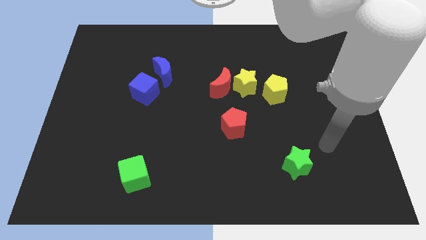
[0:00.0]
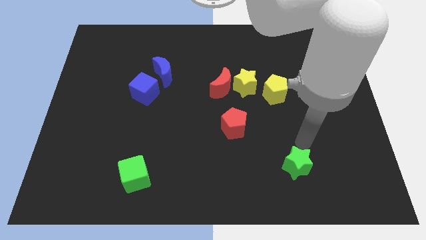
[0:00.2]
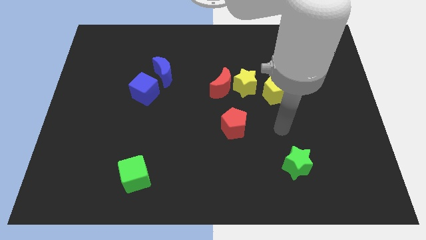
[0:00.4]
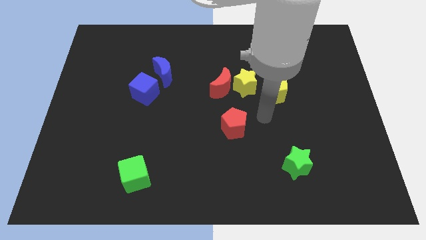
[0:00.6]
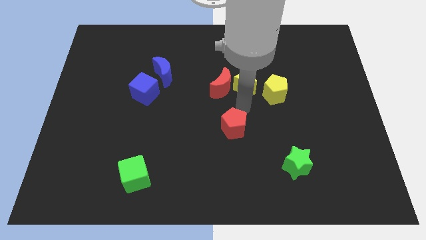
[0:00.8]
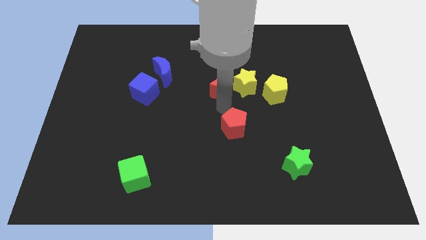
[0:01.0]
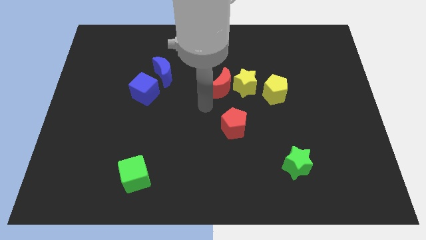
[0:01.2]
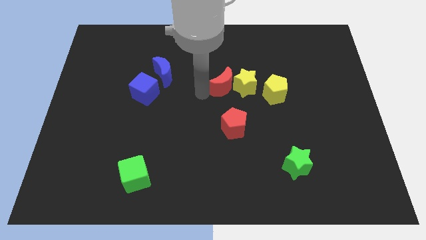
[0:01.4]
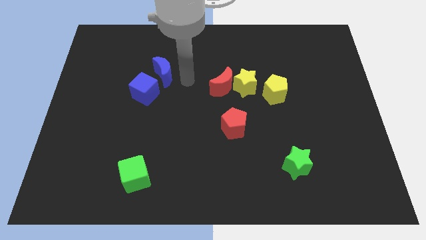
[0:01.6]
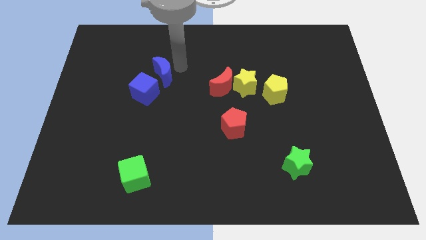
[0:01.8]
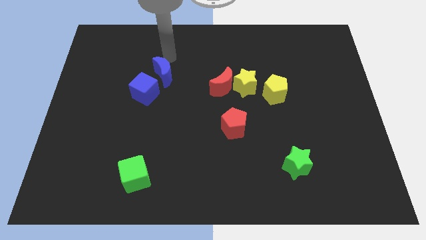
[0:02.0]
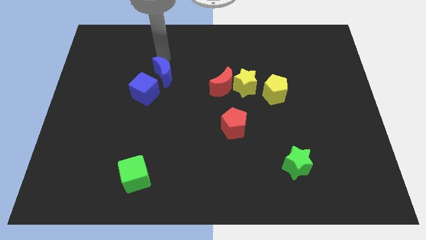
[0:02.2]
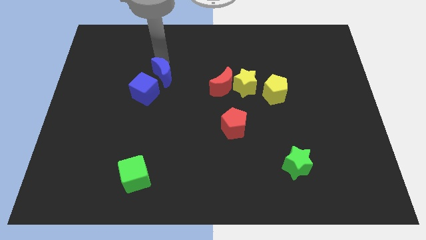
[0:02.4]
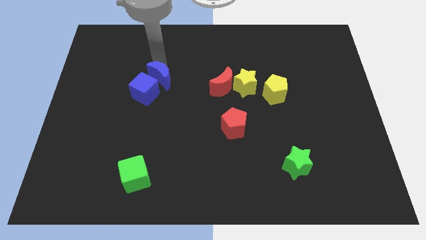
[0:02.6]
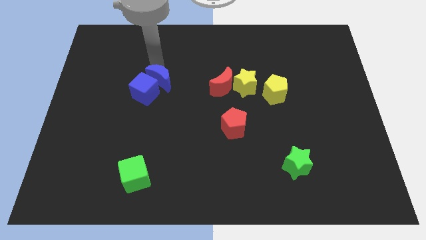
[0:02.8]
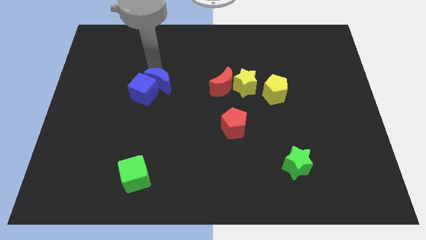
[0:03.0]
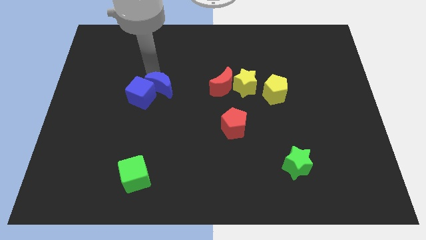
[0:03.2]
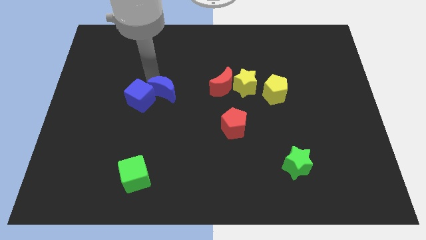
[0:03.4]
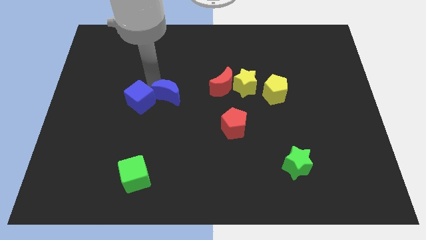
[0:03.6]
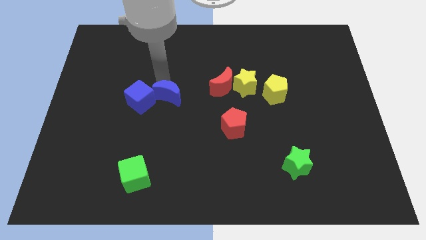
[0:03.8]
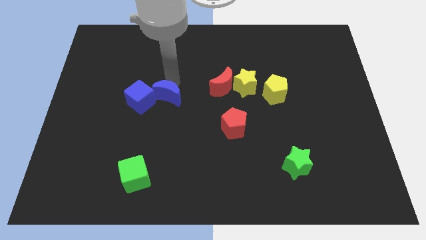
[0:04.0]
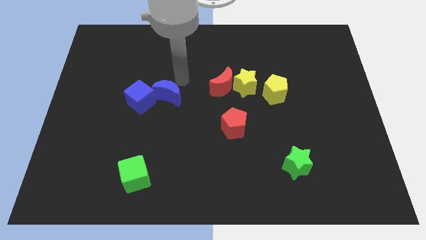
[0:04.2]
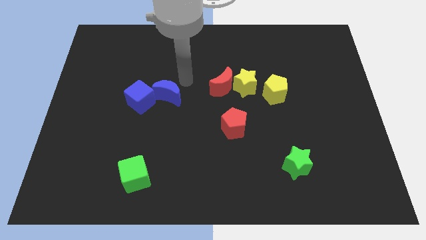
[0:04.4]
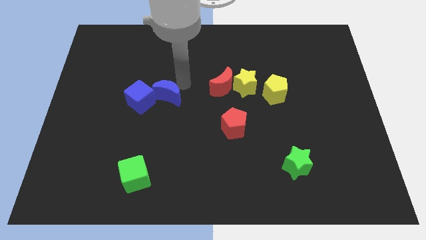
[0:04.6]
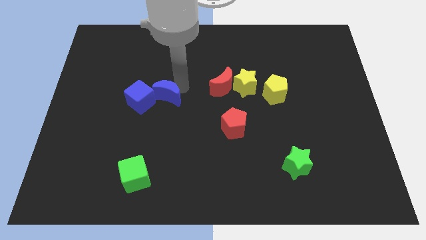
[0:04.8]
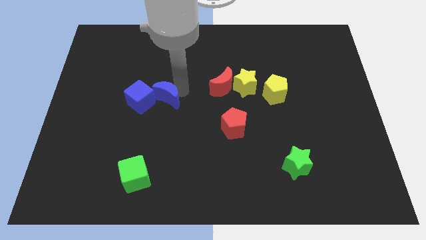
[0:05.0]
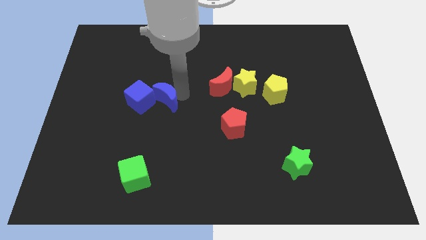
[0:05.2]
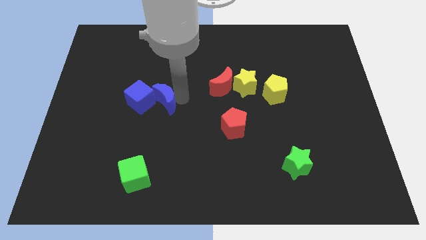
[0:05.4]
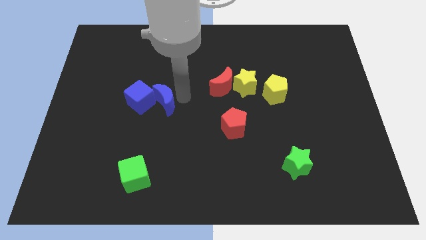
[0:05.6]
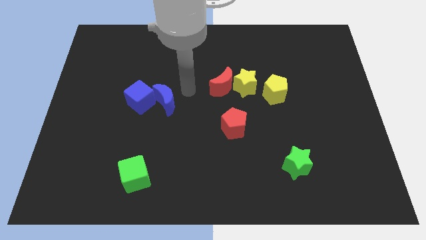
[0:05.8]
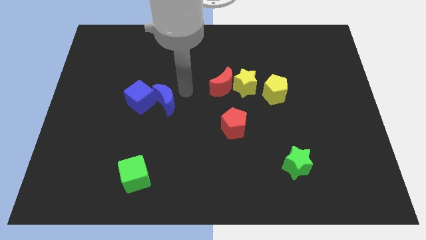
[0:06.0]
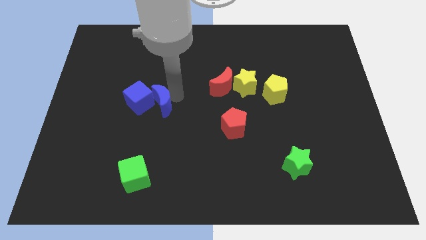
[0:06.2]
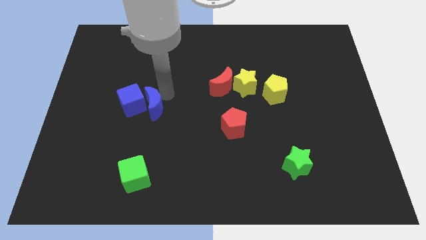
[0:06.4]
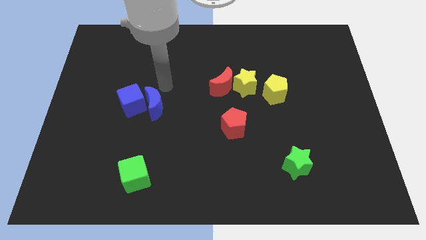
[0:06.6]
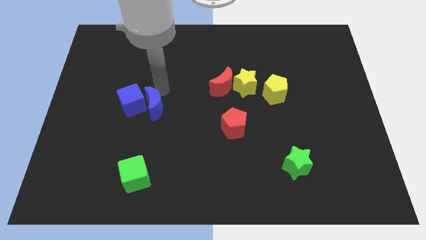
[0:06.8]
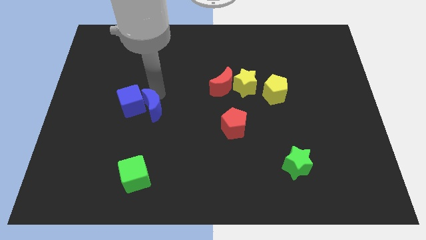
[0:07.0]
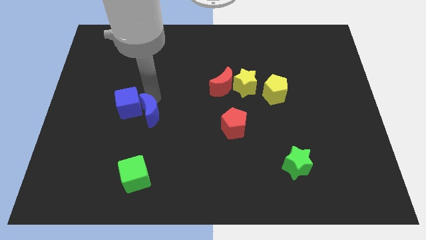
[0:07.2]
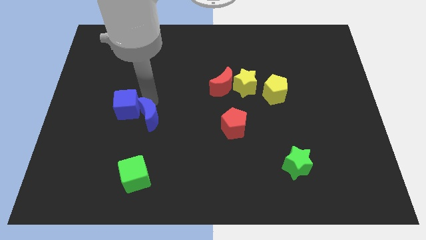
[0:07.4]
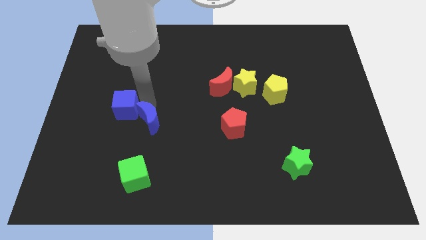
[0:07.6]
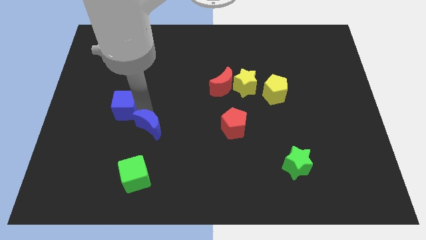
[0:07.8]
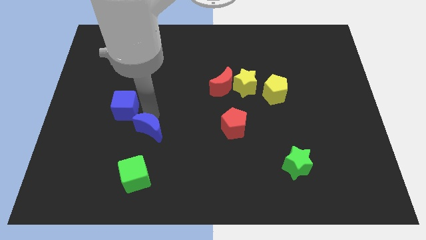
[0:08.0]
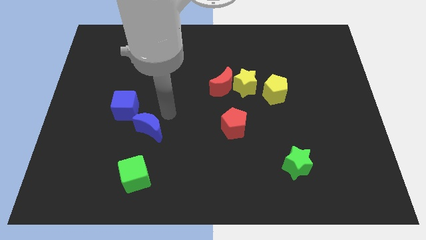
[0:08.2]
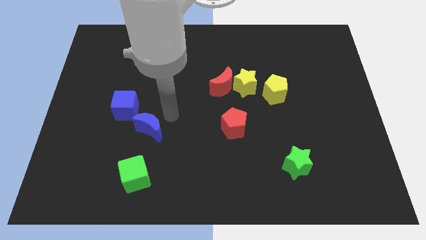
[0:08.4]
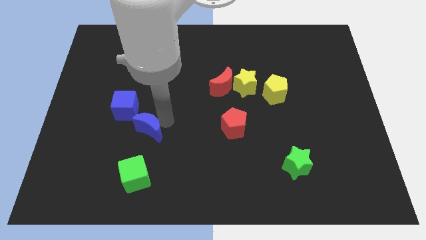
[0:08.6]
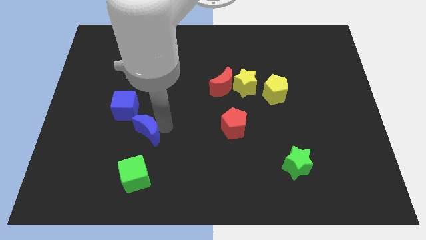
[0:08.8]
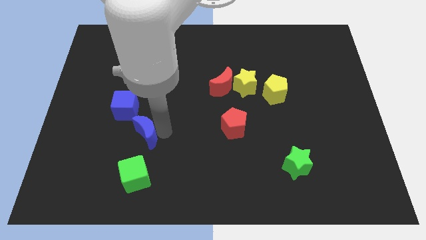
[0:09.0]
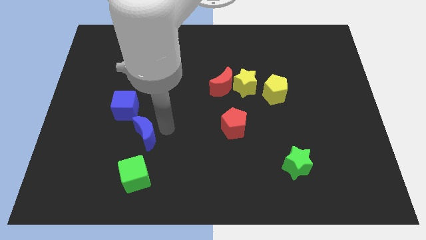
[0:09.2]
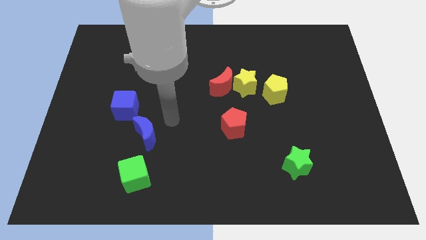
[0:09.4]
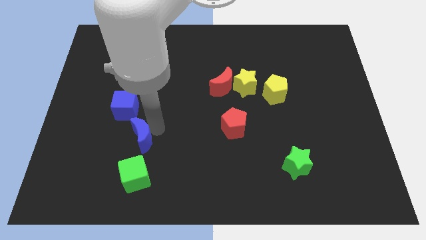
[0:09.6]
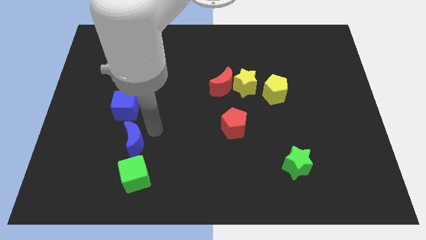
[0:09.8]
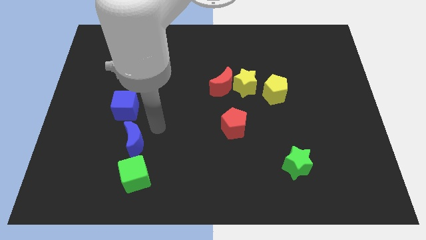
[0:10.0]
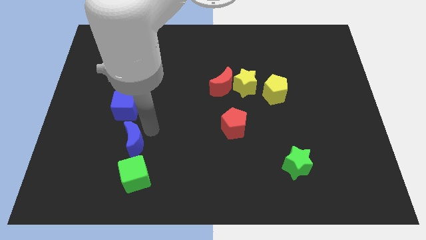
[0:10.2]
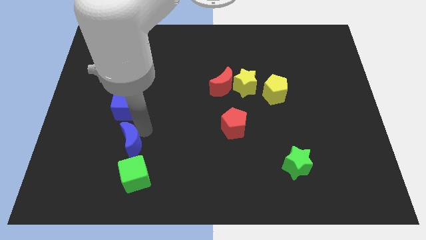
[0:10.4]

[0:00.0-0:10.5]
push the blue moon to the top left of the green cube

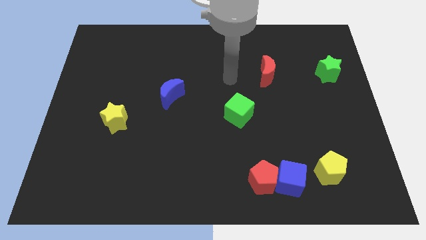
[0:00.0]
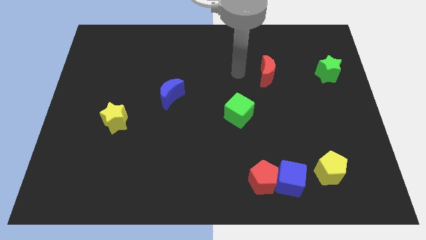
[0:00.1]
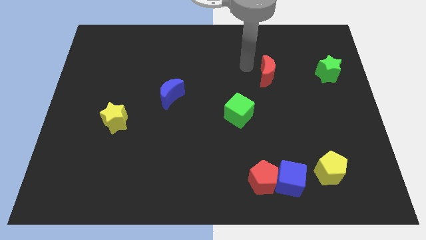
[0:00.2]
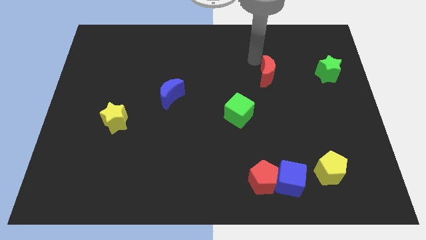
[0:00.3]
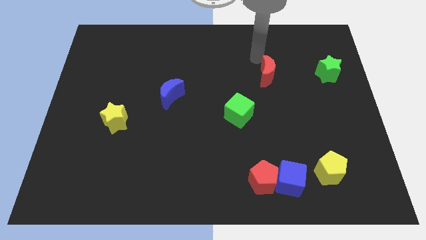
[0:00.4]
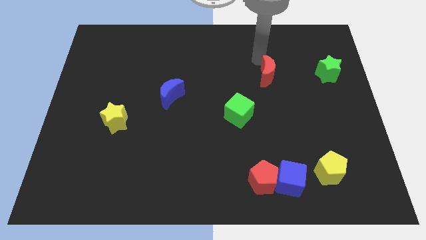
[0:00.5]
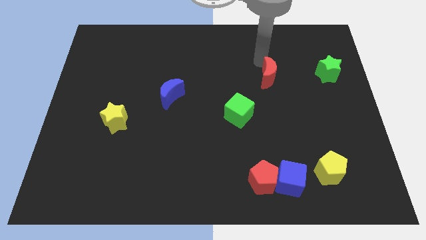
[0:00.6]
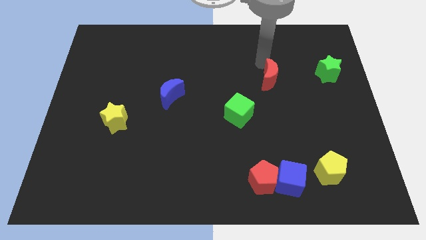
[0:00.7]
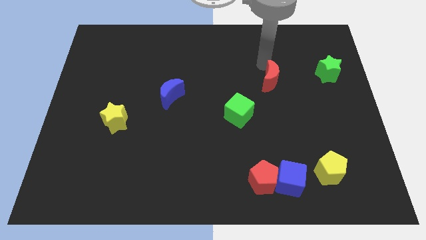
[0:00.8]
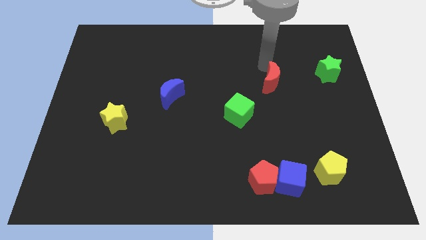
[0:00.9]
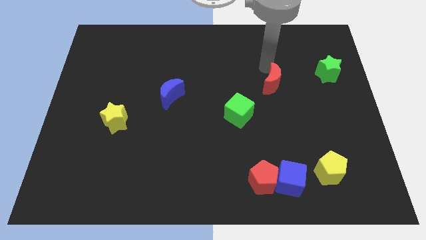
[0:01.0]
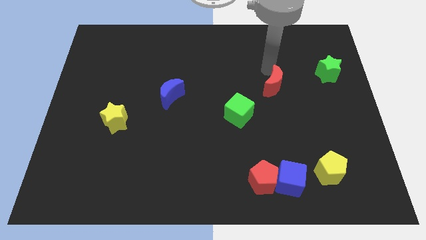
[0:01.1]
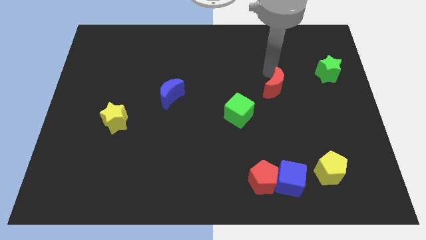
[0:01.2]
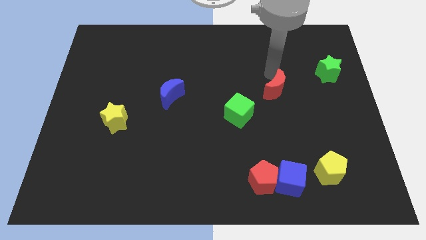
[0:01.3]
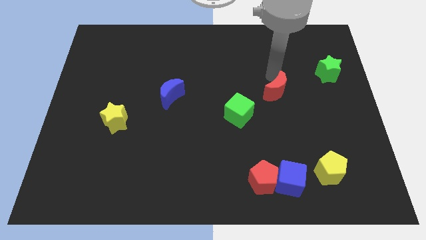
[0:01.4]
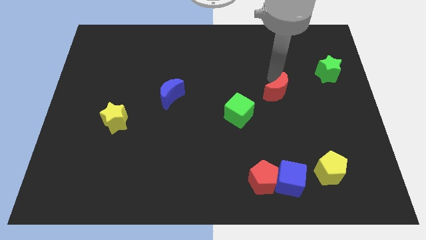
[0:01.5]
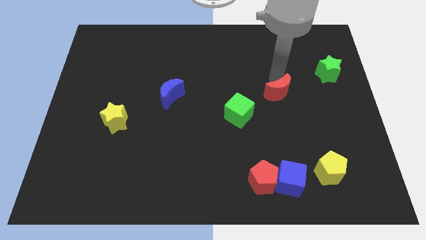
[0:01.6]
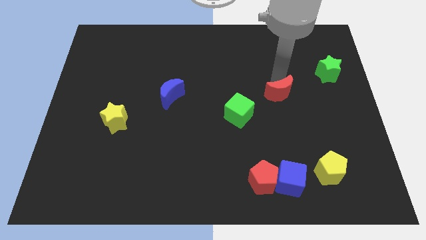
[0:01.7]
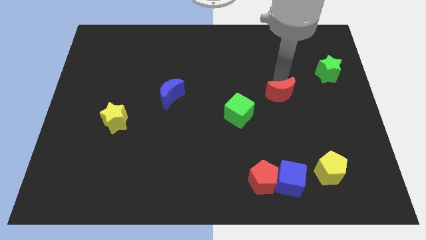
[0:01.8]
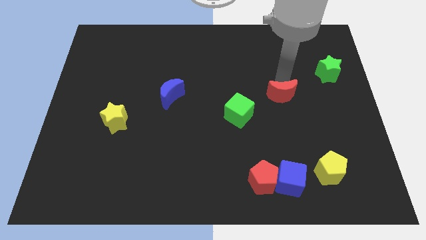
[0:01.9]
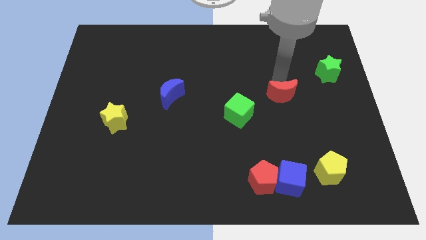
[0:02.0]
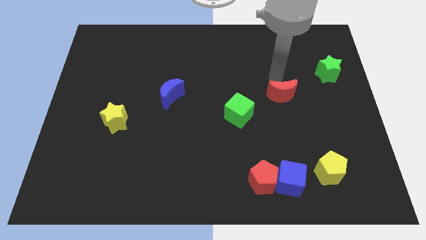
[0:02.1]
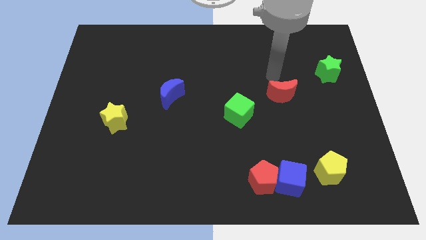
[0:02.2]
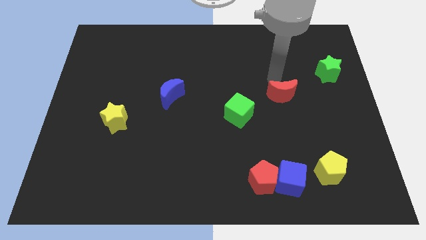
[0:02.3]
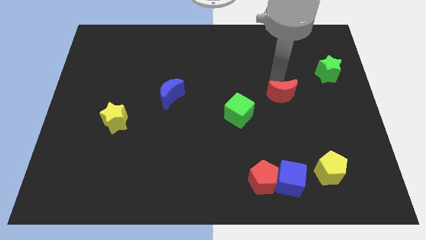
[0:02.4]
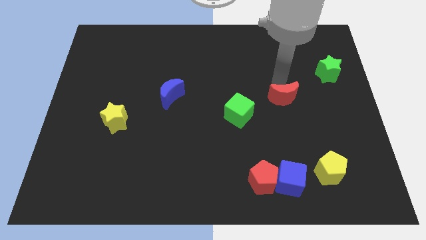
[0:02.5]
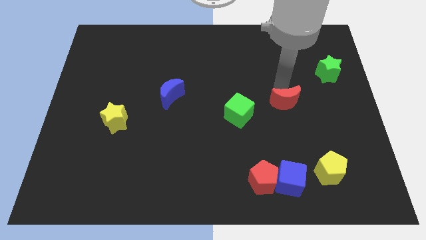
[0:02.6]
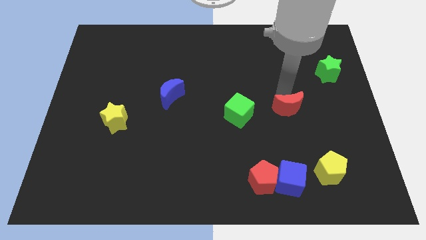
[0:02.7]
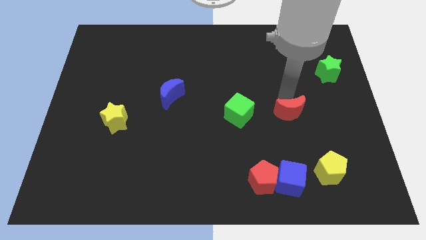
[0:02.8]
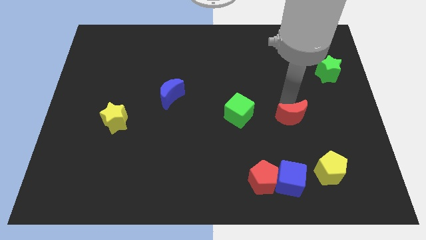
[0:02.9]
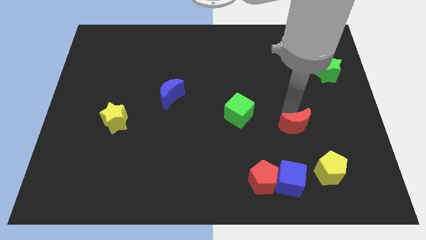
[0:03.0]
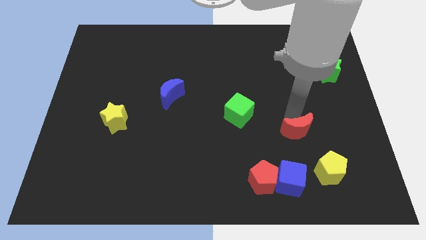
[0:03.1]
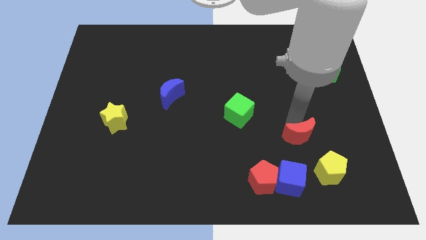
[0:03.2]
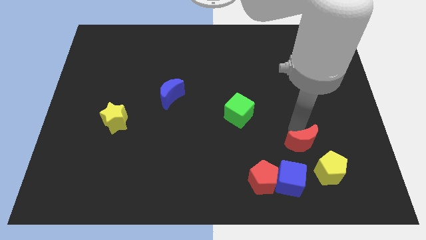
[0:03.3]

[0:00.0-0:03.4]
move the red moon to the top right of the blue cube
